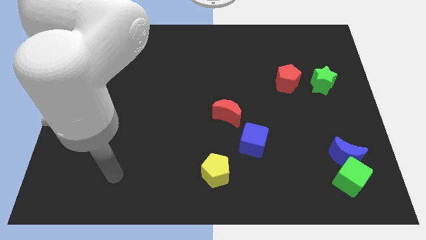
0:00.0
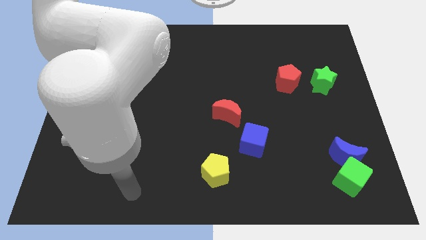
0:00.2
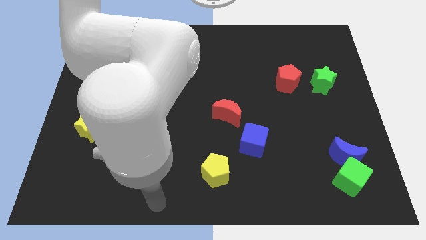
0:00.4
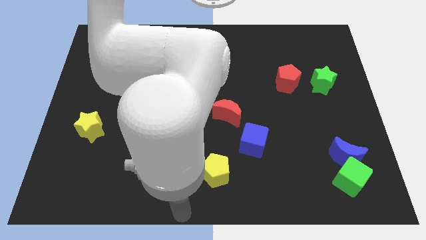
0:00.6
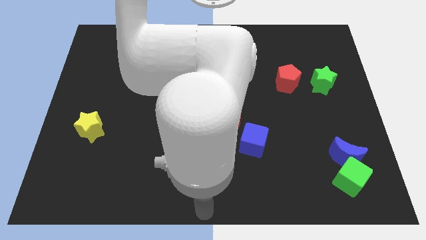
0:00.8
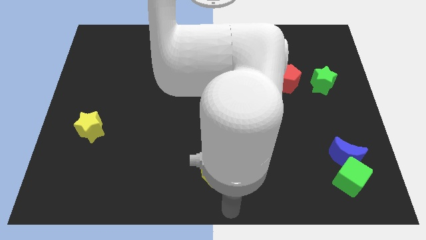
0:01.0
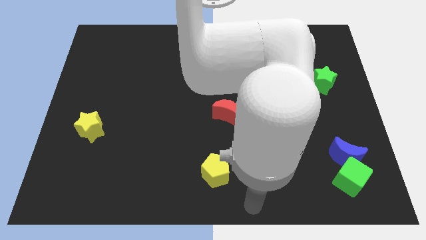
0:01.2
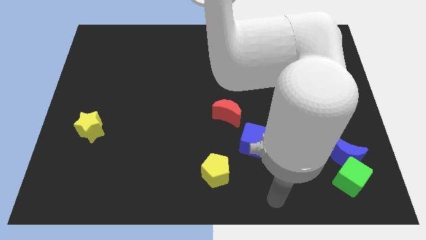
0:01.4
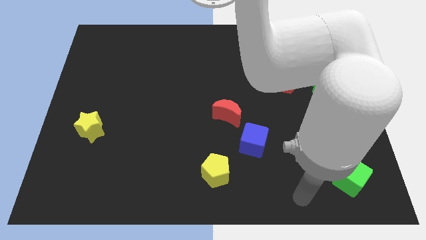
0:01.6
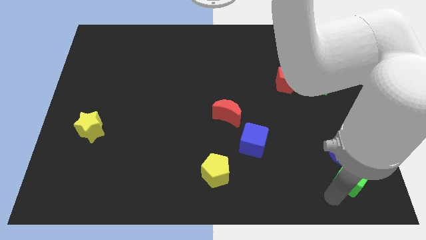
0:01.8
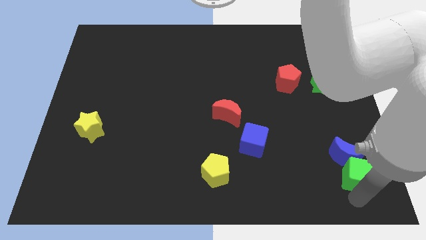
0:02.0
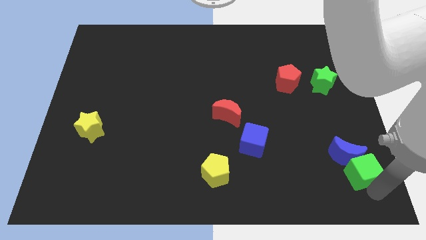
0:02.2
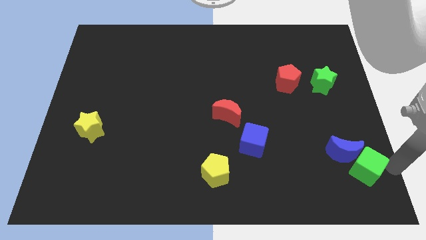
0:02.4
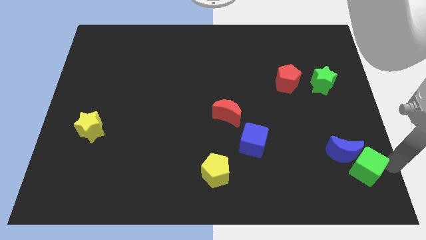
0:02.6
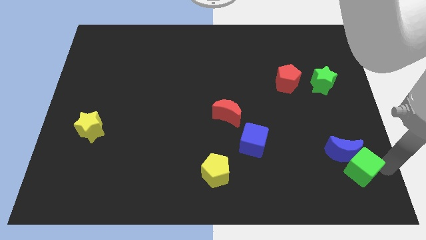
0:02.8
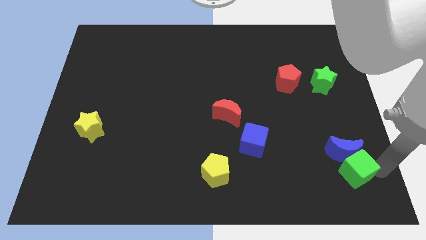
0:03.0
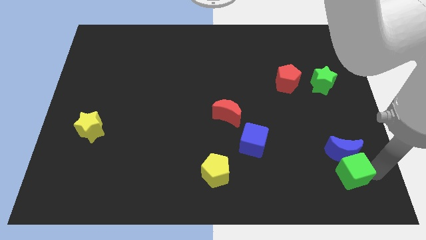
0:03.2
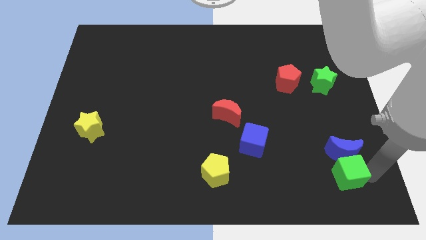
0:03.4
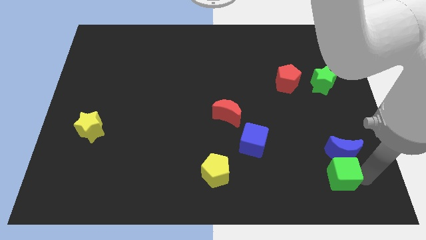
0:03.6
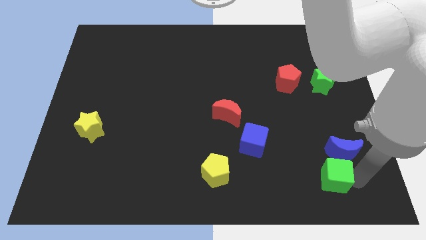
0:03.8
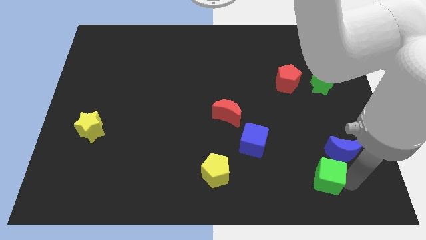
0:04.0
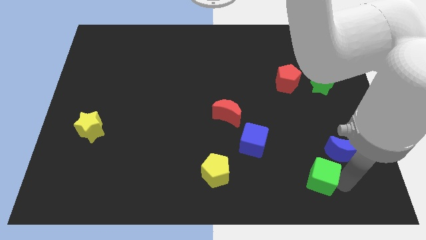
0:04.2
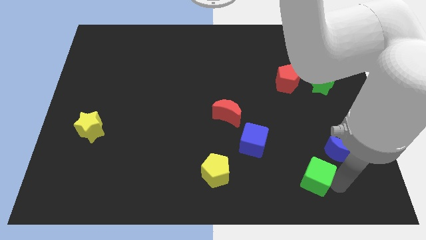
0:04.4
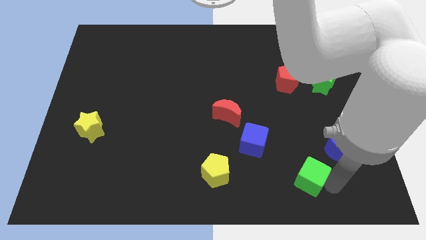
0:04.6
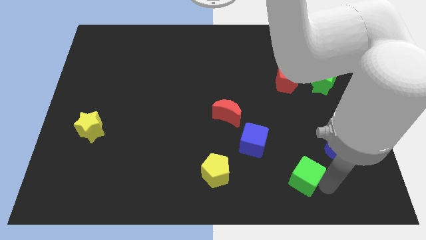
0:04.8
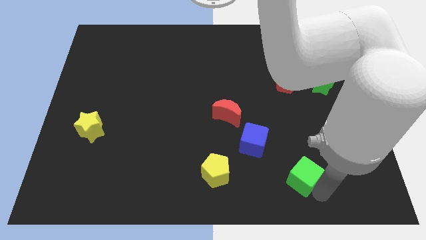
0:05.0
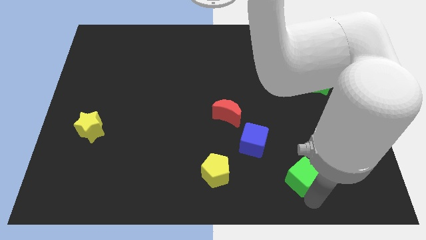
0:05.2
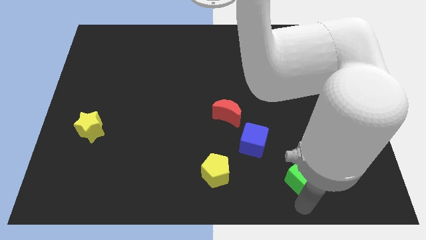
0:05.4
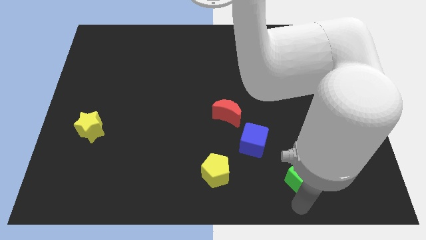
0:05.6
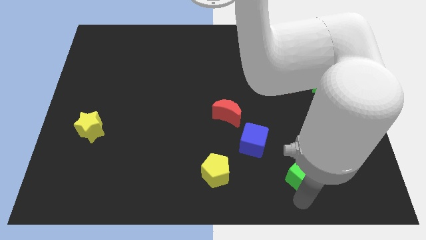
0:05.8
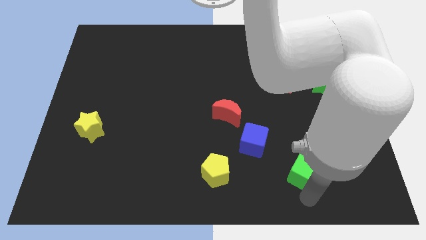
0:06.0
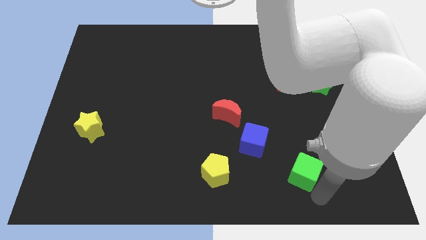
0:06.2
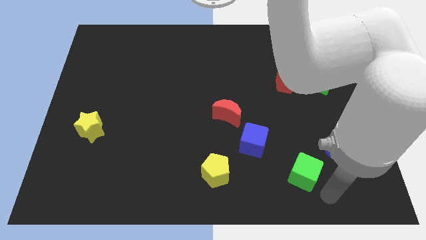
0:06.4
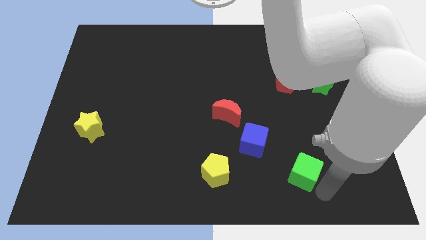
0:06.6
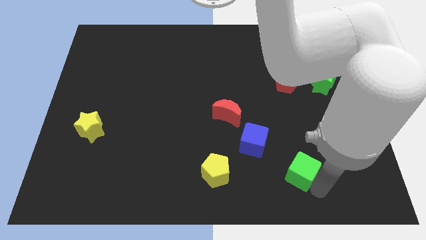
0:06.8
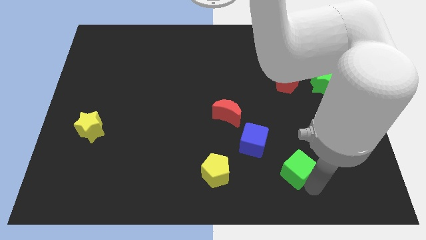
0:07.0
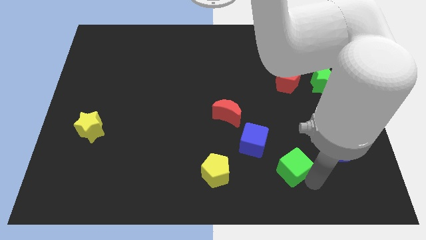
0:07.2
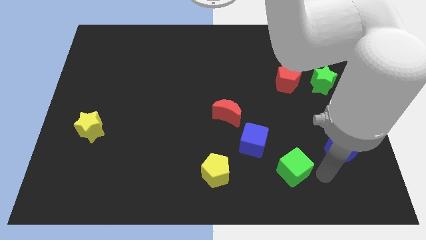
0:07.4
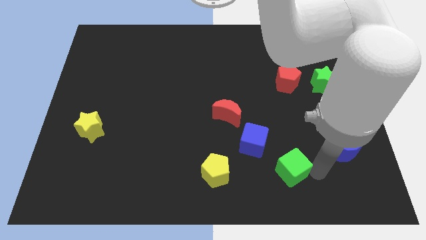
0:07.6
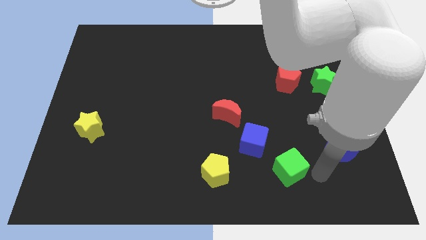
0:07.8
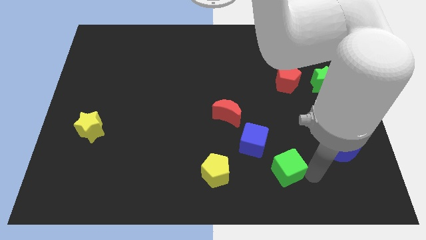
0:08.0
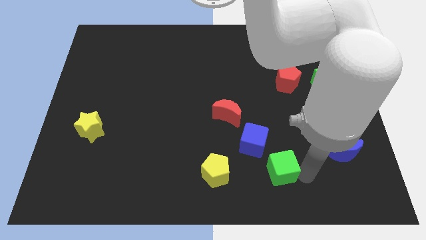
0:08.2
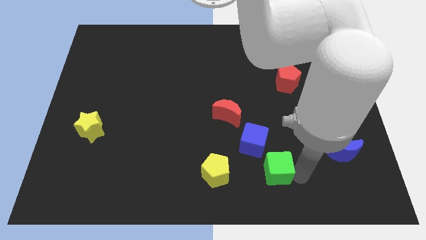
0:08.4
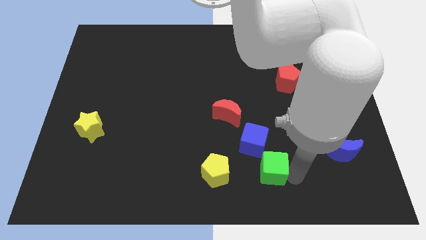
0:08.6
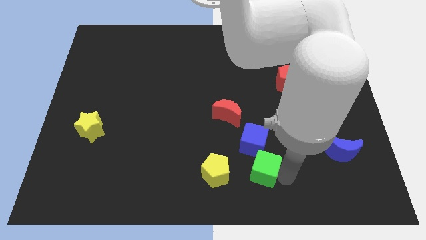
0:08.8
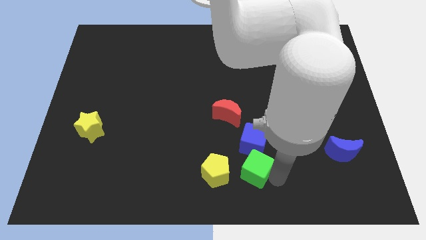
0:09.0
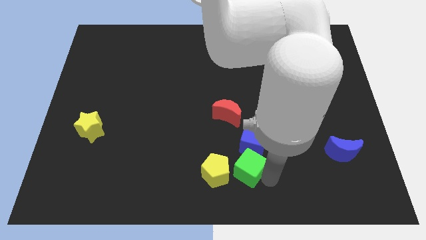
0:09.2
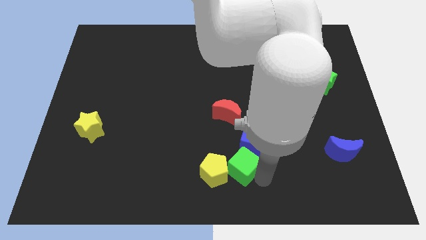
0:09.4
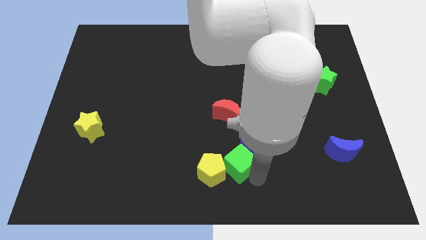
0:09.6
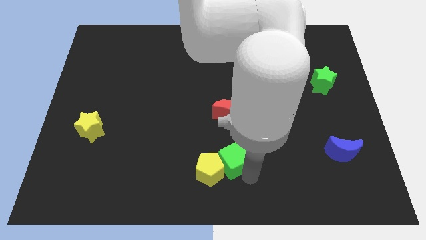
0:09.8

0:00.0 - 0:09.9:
push the green cube to the left of the blue cube

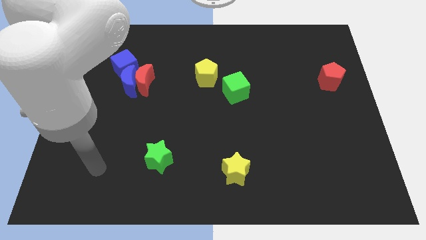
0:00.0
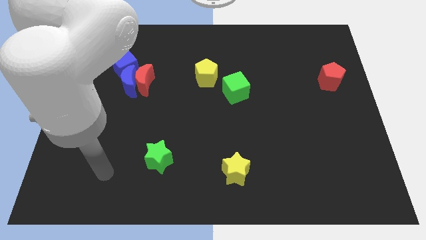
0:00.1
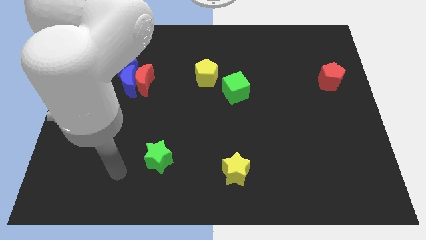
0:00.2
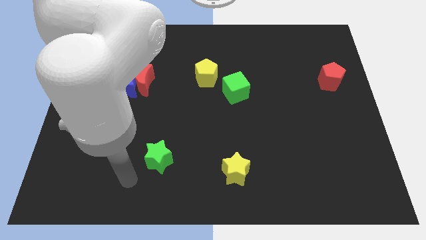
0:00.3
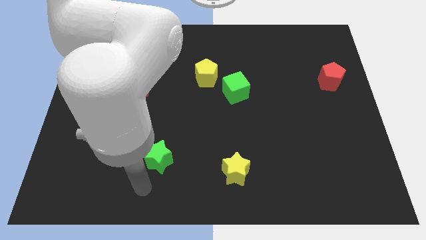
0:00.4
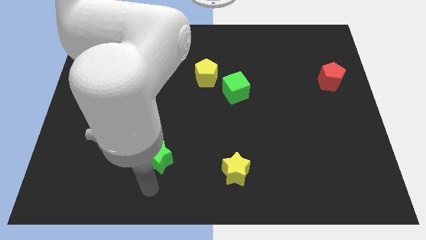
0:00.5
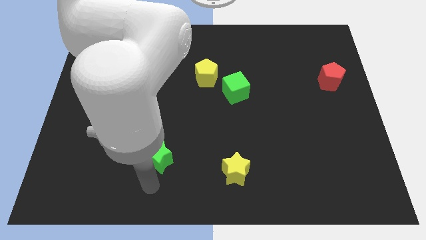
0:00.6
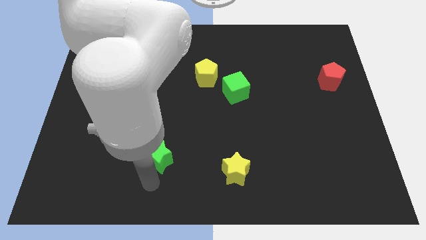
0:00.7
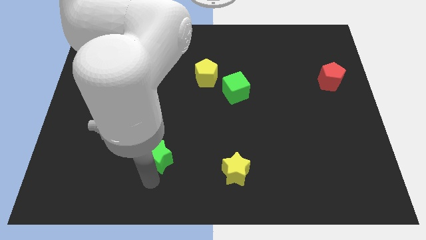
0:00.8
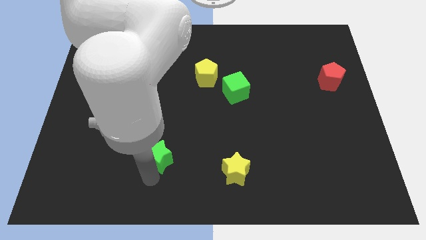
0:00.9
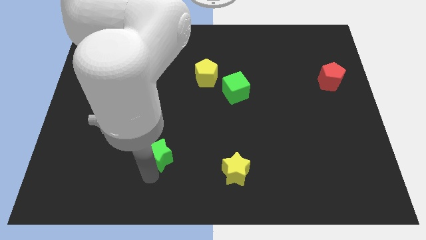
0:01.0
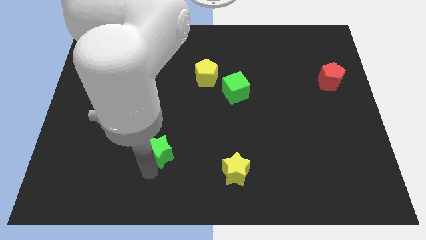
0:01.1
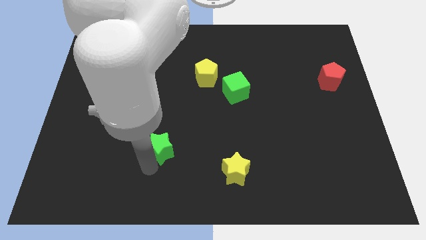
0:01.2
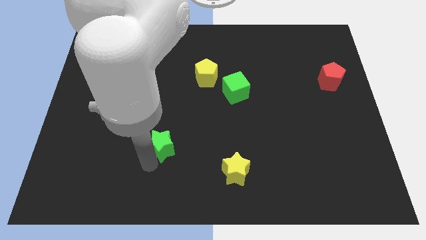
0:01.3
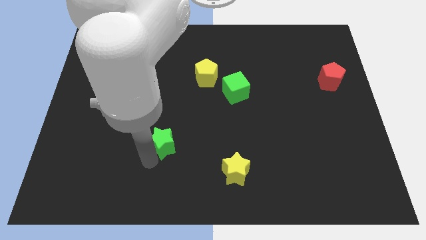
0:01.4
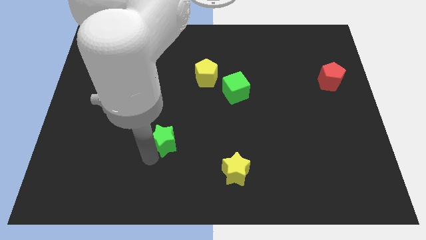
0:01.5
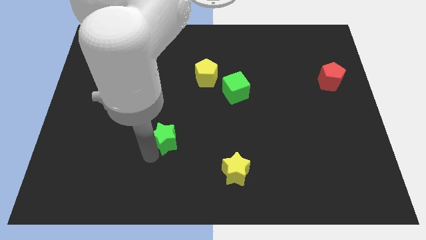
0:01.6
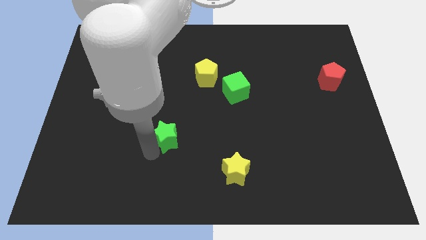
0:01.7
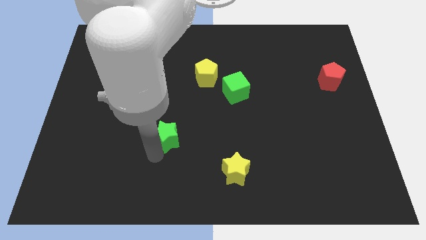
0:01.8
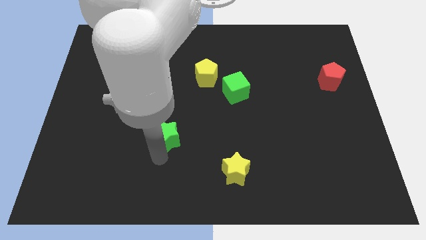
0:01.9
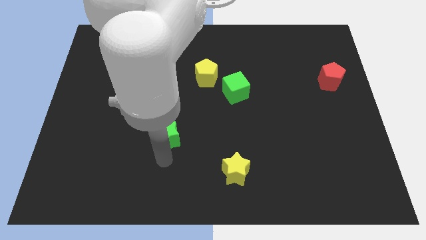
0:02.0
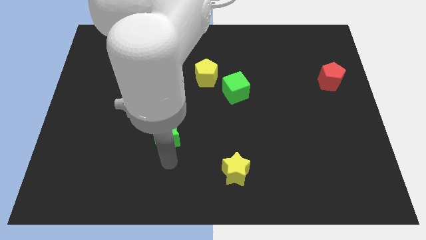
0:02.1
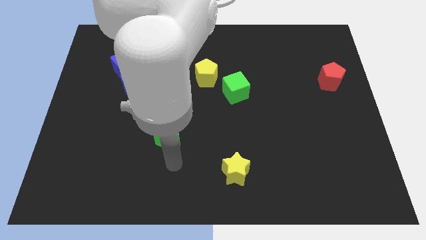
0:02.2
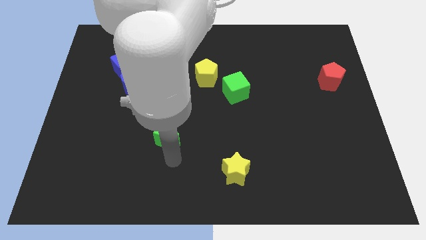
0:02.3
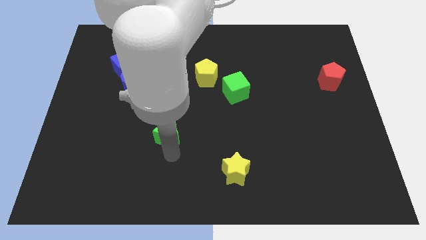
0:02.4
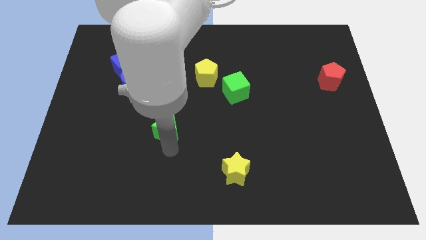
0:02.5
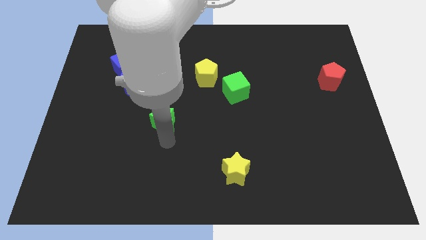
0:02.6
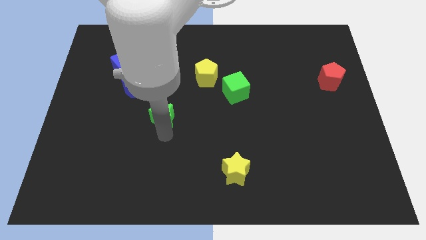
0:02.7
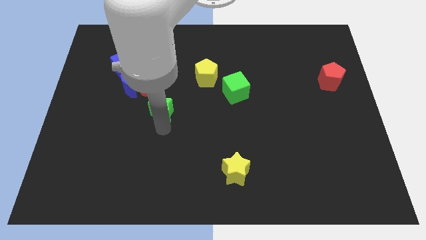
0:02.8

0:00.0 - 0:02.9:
move the green star diagonally down and to the right of the red moon
